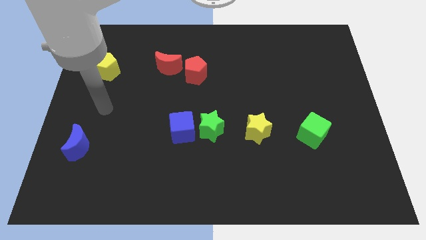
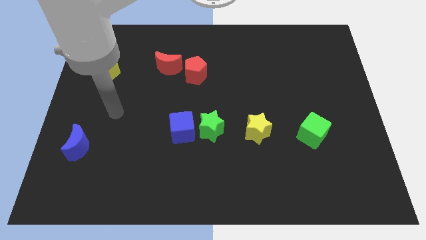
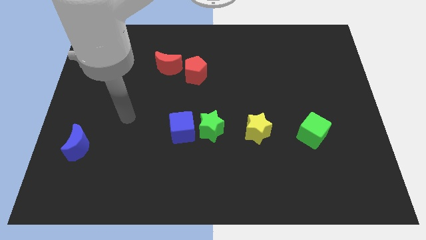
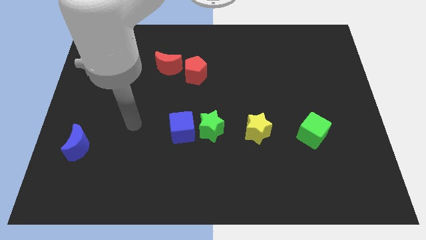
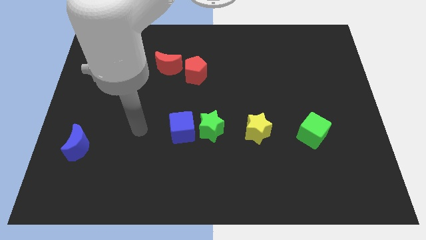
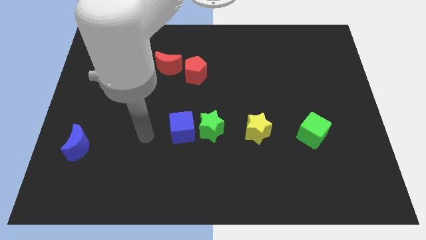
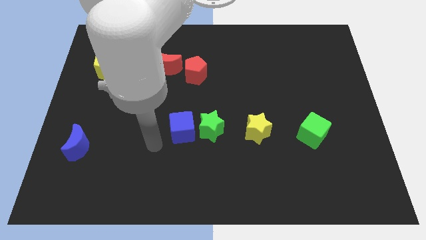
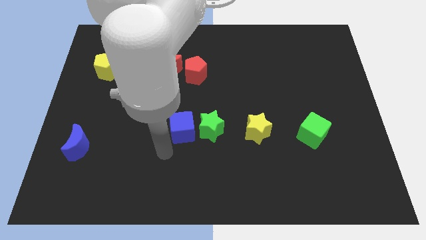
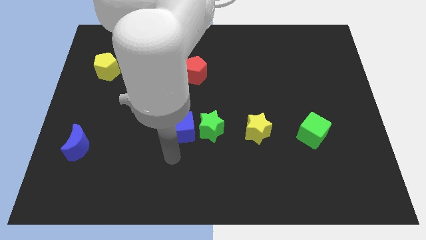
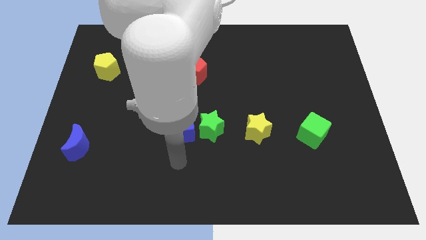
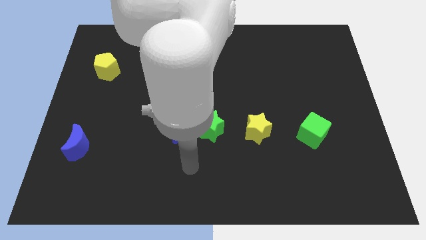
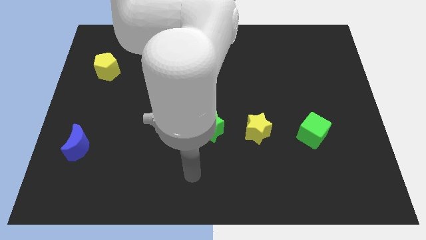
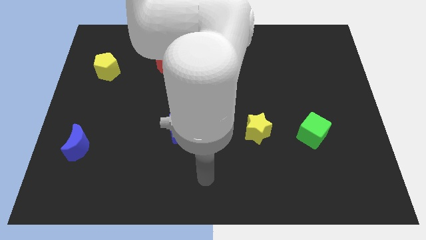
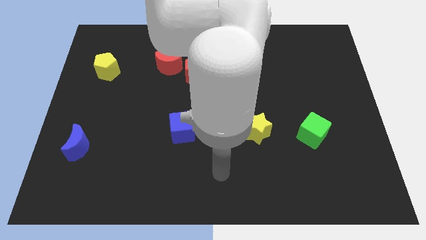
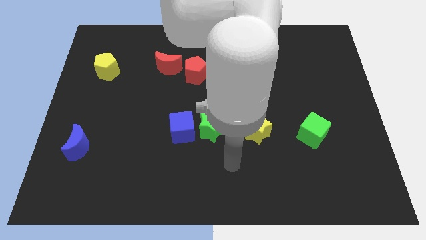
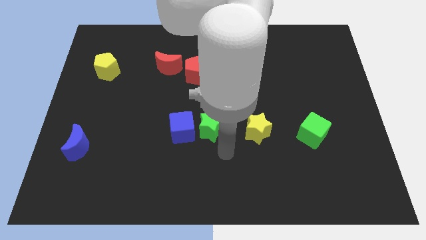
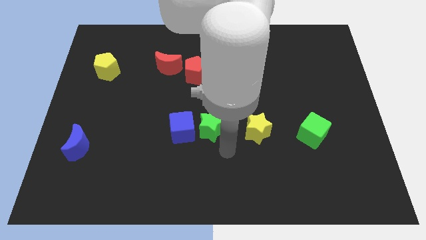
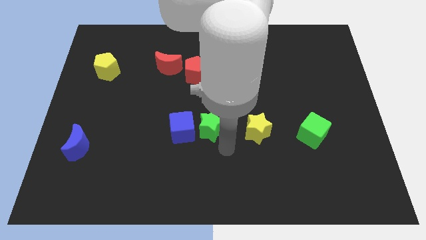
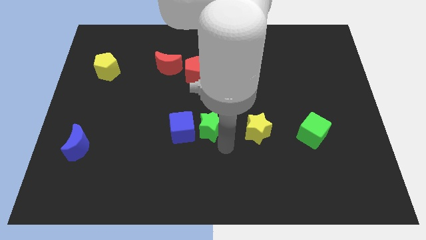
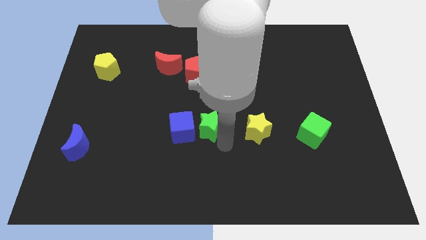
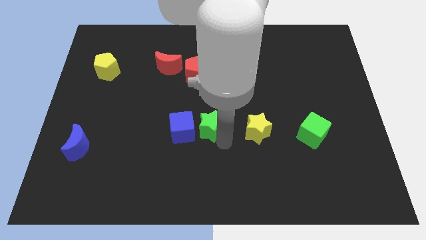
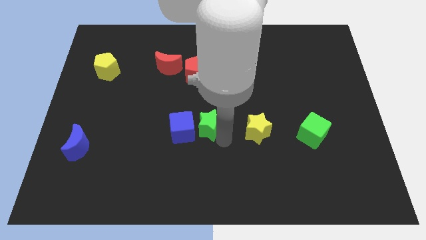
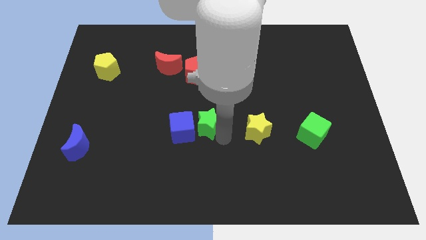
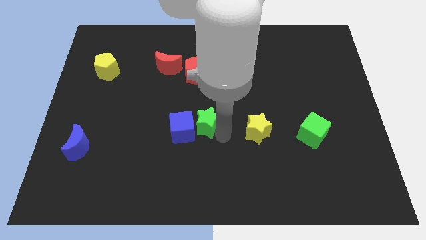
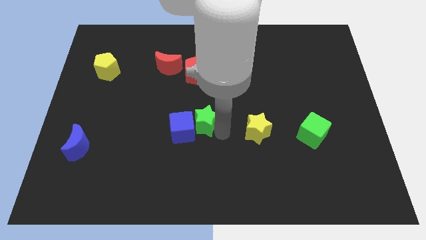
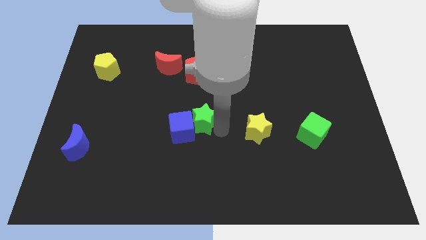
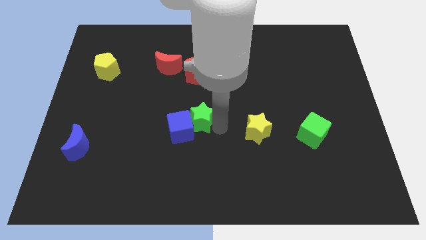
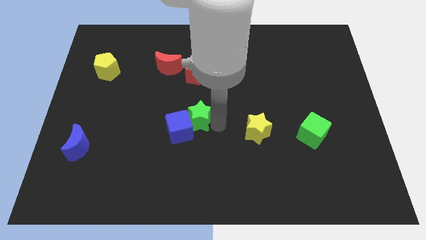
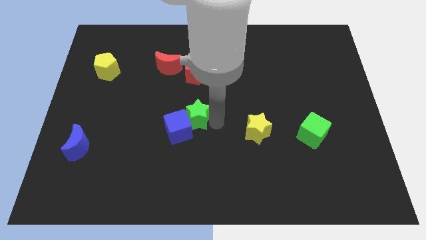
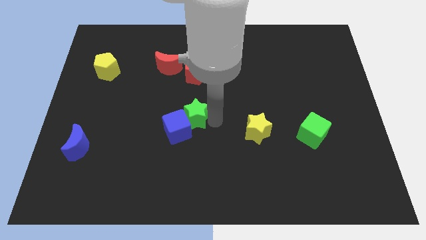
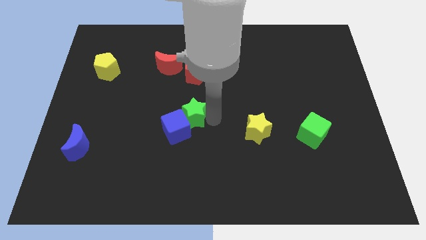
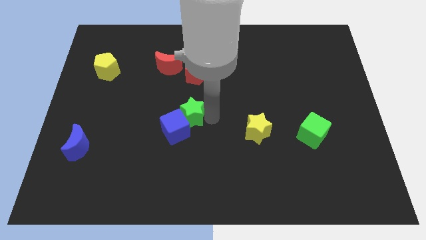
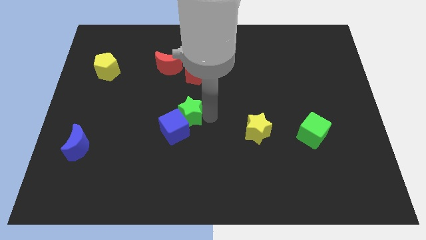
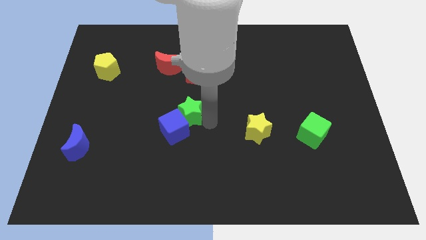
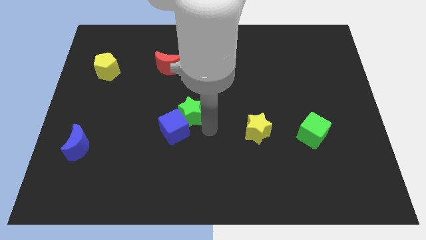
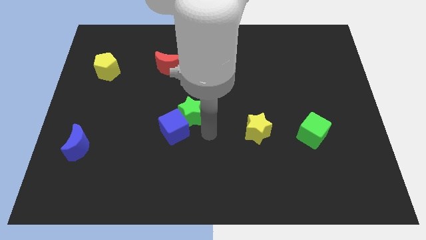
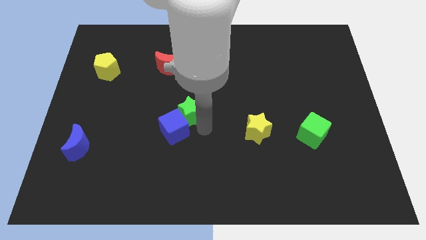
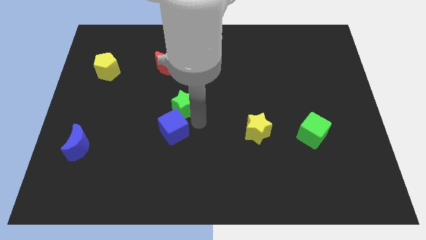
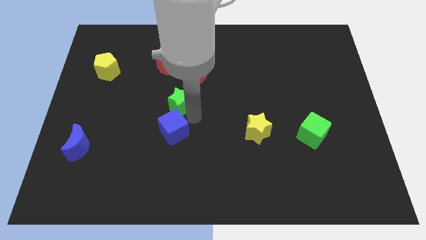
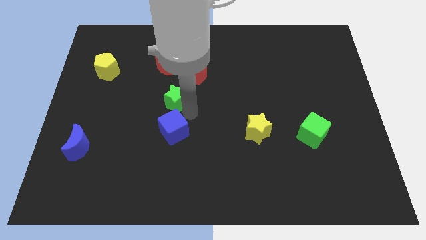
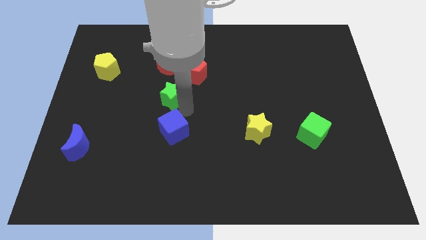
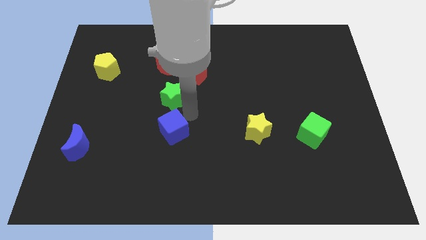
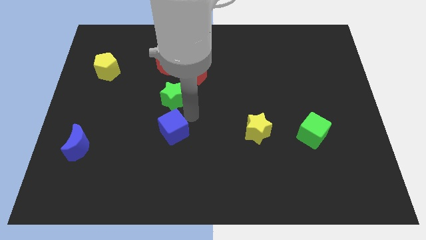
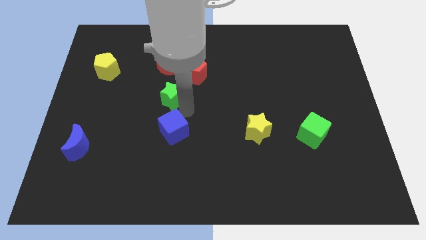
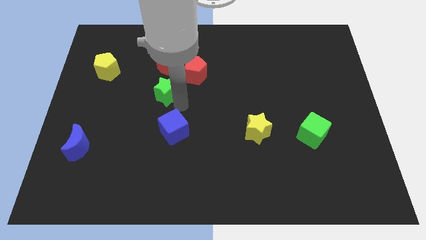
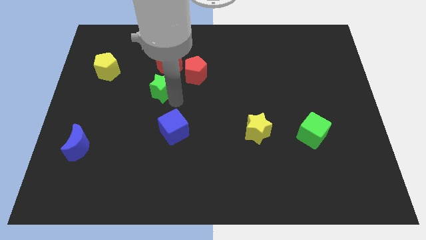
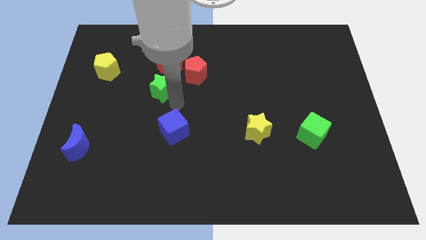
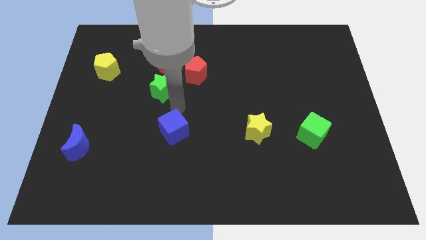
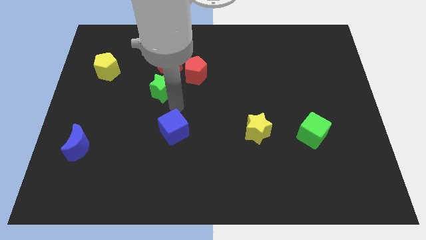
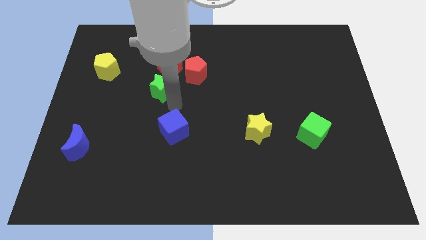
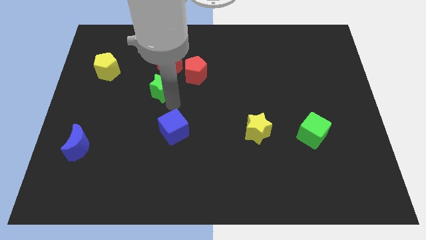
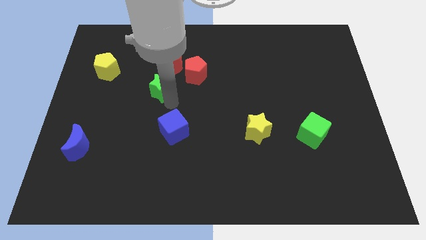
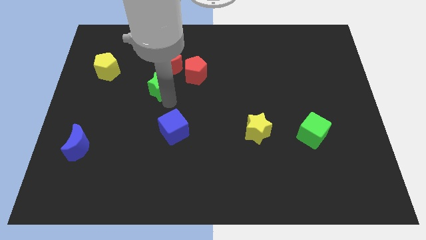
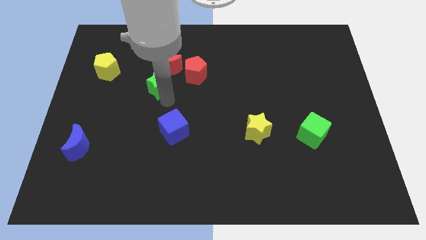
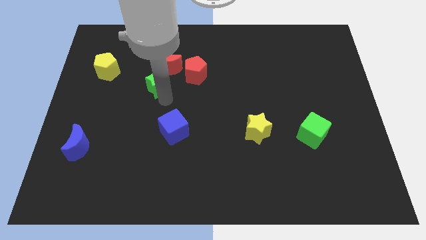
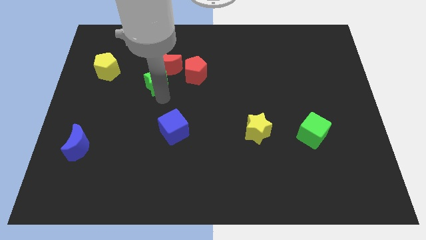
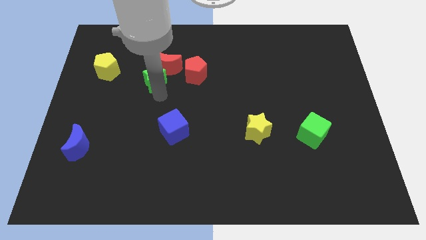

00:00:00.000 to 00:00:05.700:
move the green star upwards and left diagonally

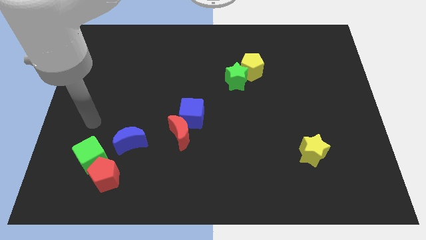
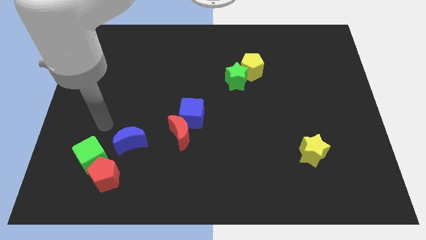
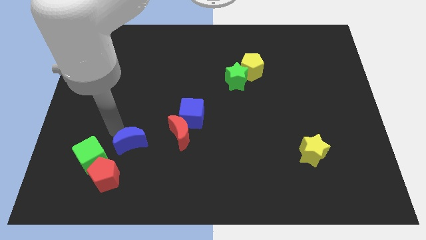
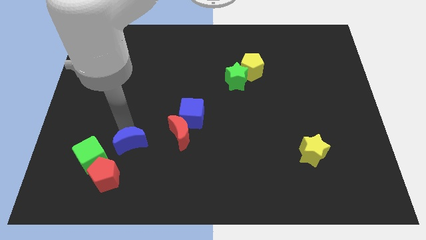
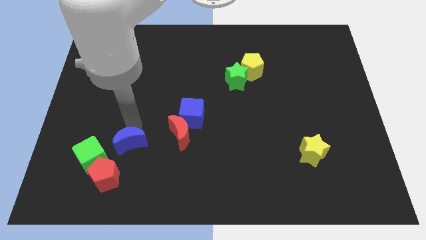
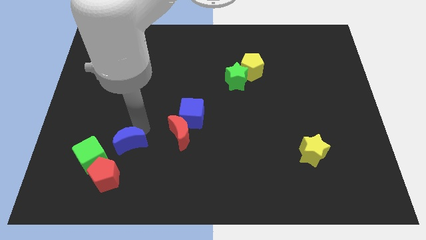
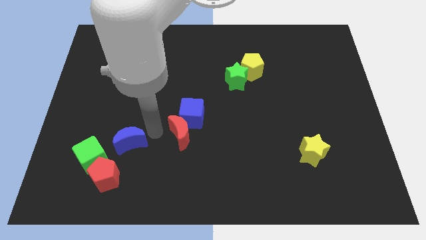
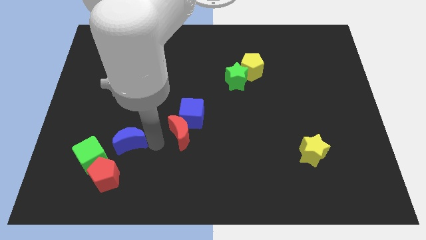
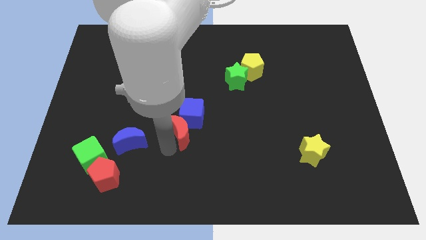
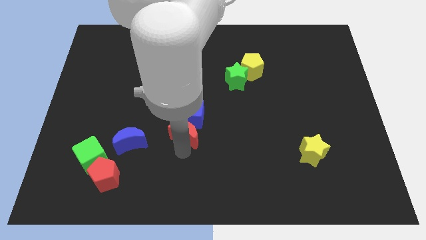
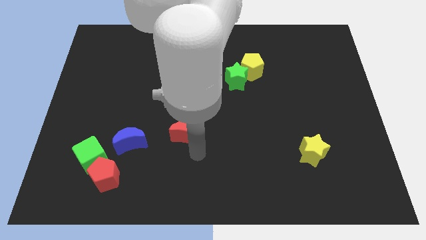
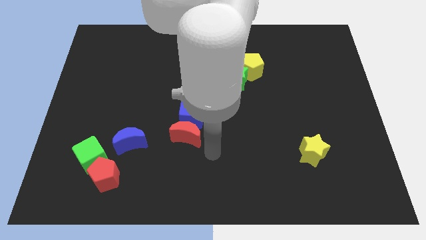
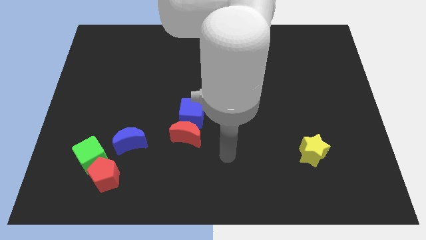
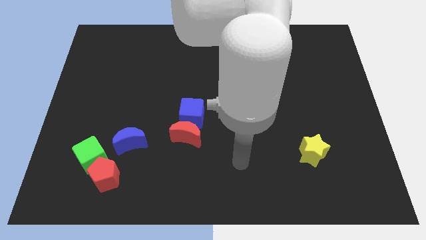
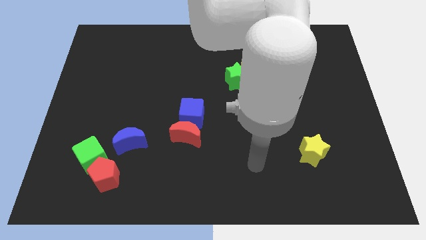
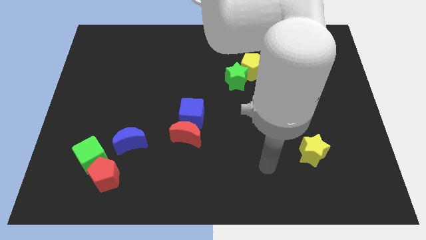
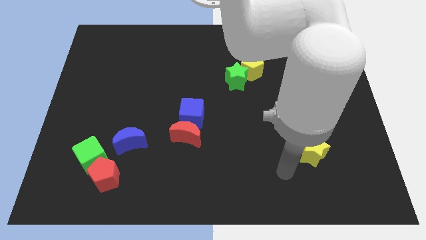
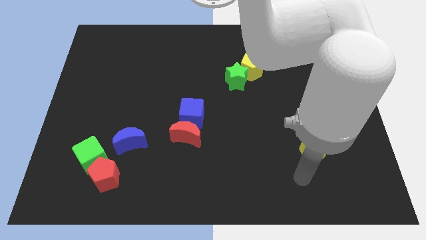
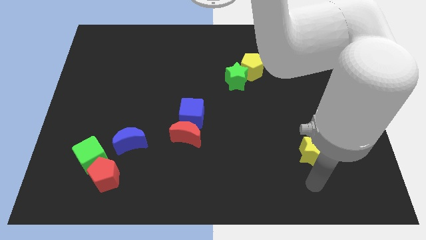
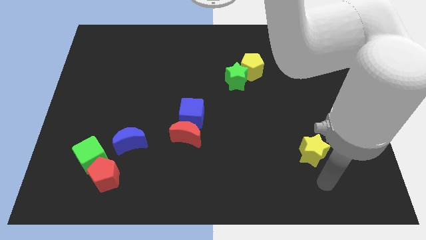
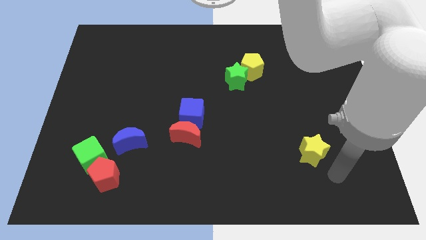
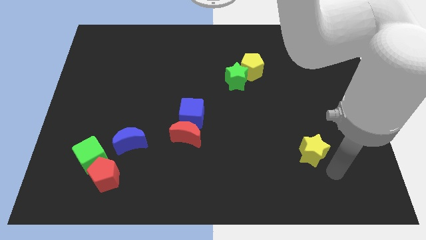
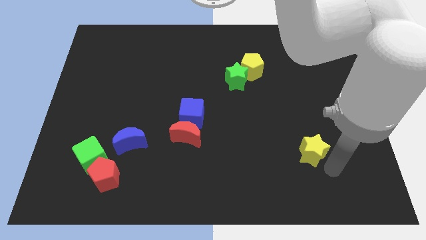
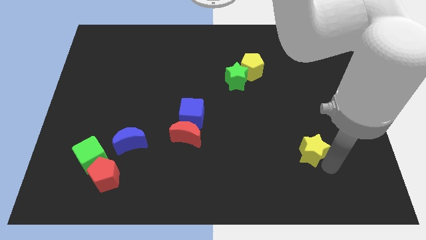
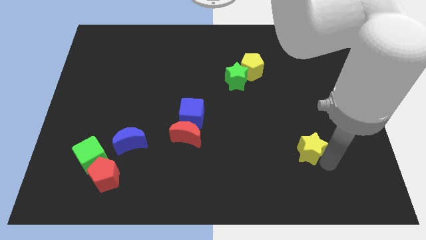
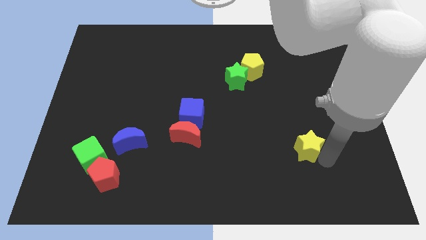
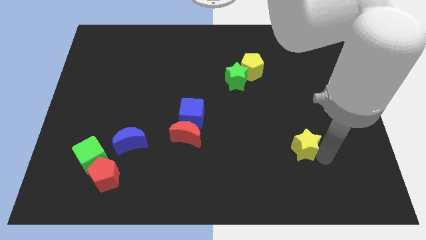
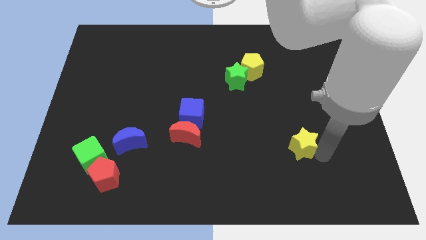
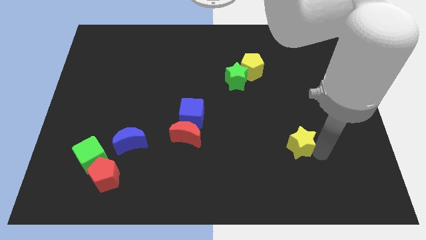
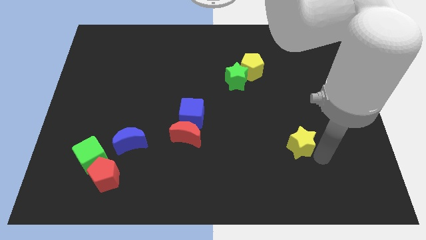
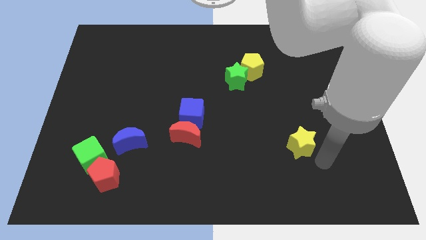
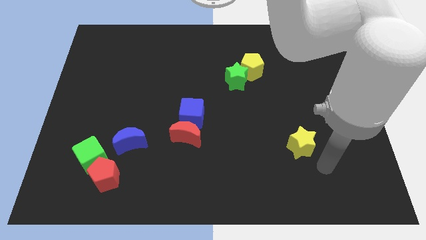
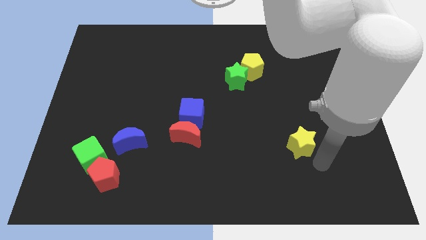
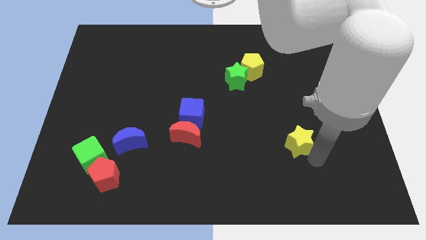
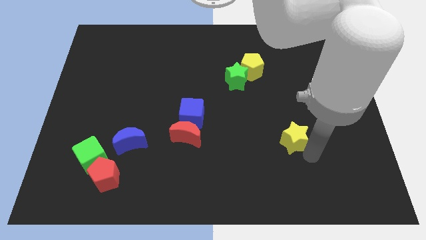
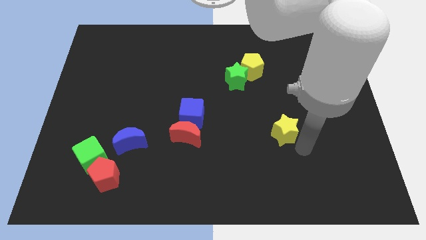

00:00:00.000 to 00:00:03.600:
slightly move the yellow star diagonally upwards and left
